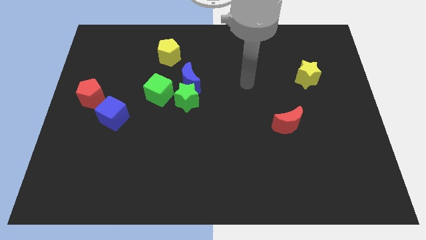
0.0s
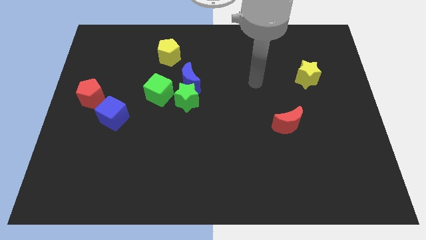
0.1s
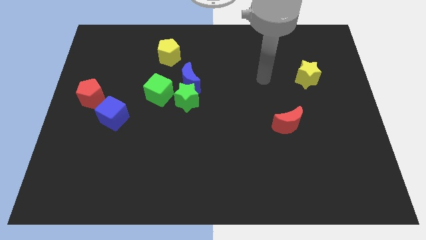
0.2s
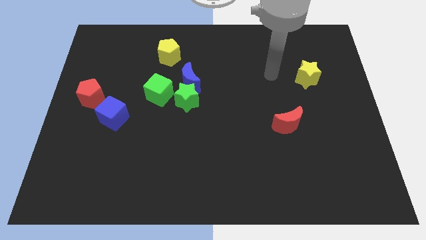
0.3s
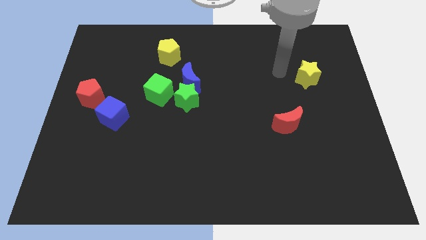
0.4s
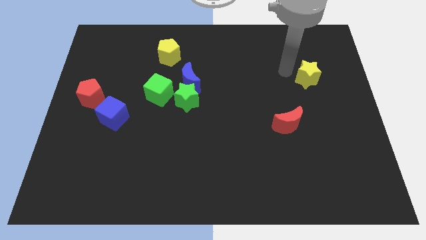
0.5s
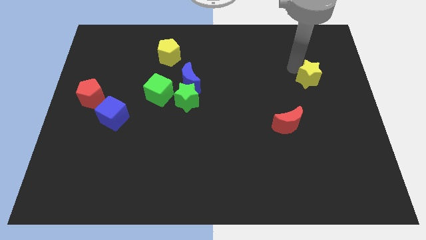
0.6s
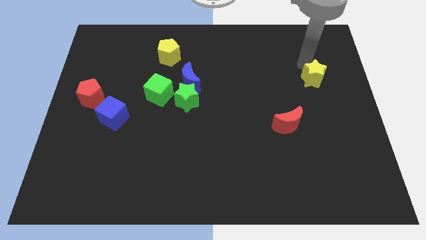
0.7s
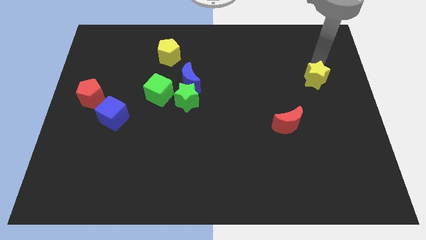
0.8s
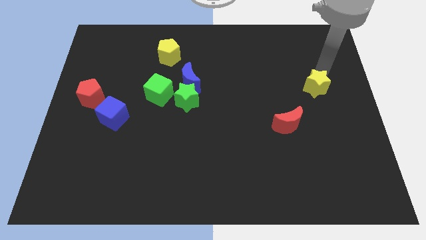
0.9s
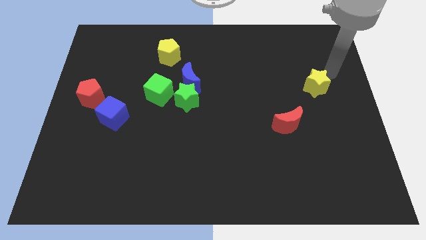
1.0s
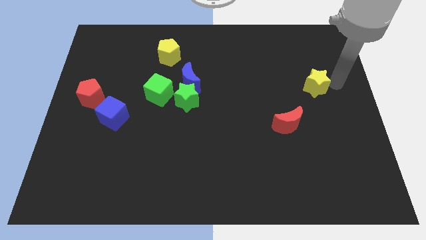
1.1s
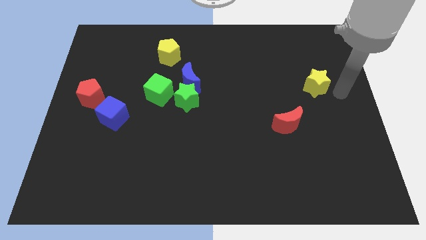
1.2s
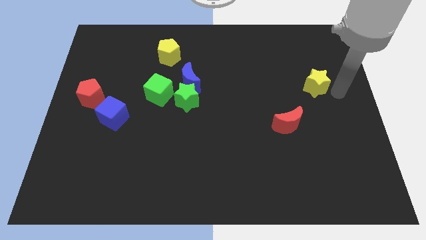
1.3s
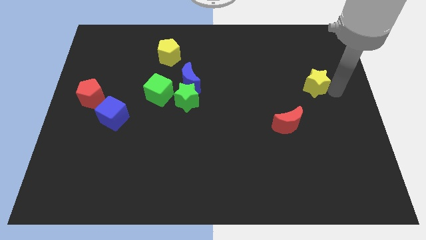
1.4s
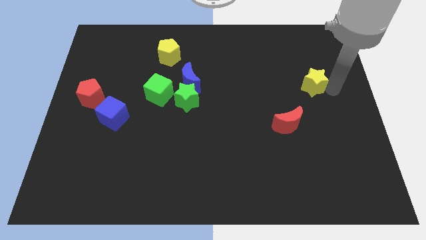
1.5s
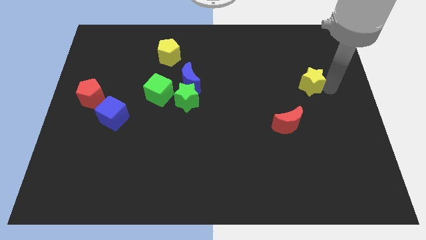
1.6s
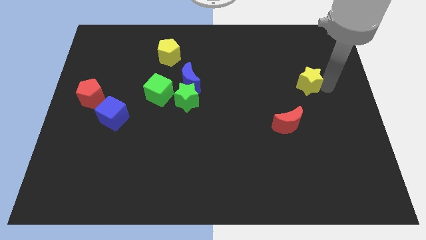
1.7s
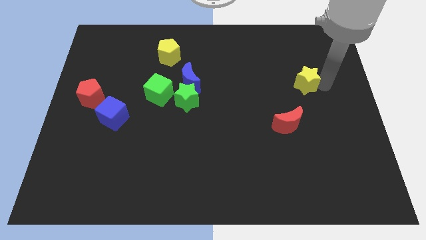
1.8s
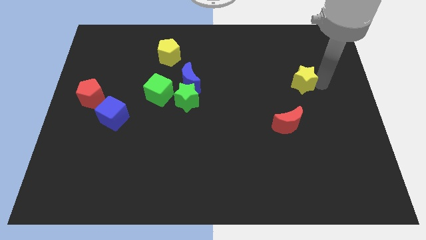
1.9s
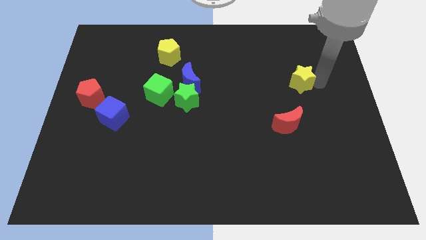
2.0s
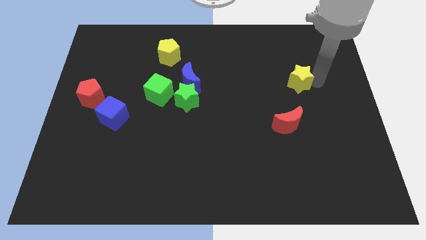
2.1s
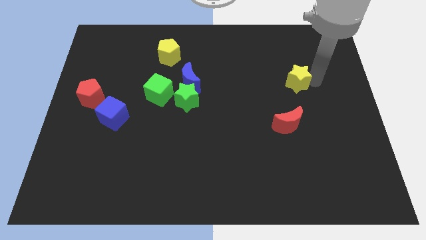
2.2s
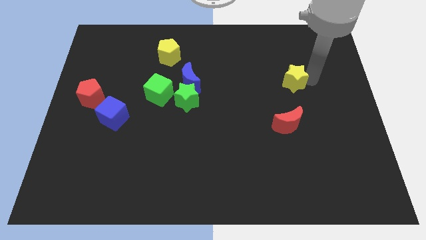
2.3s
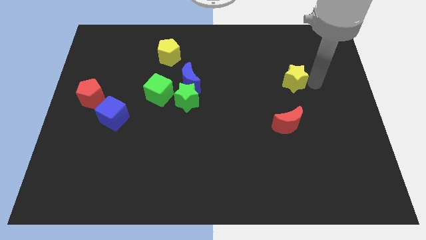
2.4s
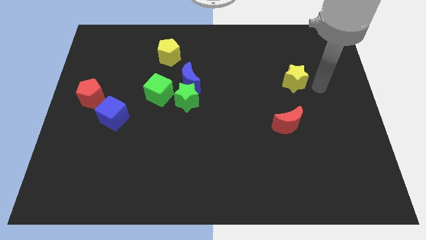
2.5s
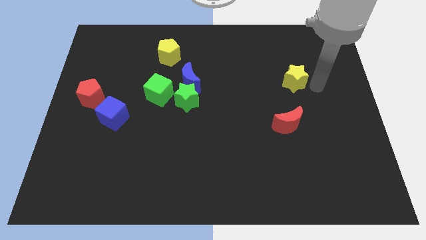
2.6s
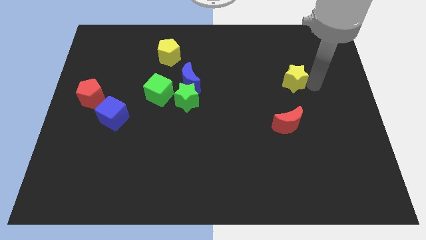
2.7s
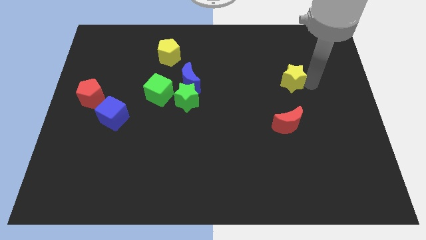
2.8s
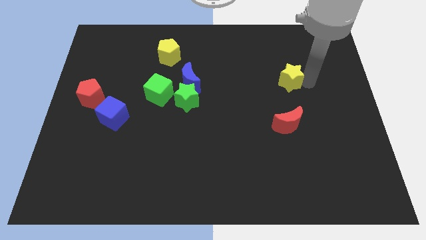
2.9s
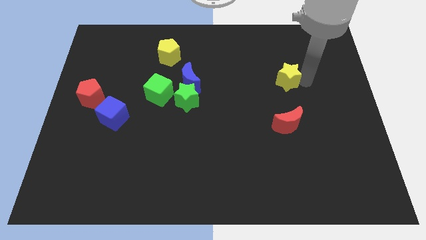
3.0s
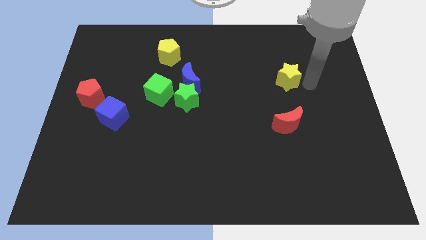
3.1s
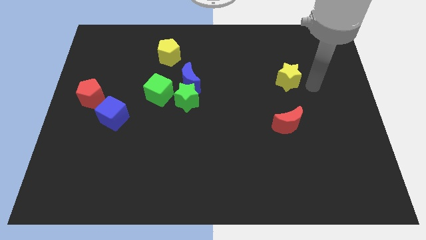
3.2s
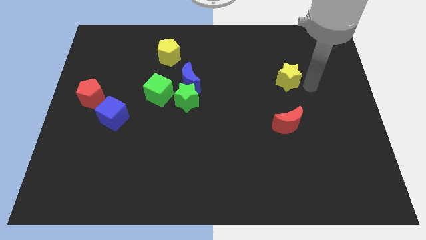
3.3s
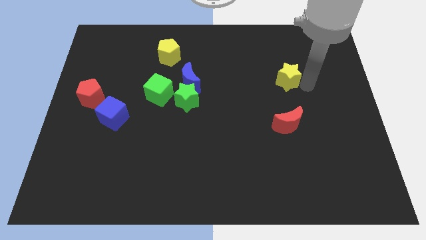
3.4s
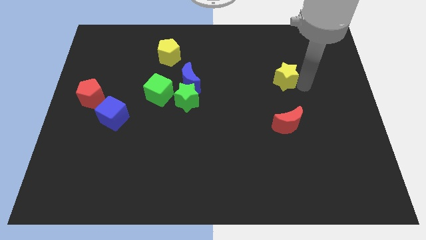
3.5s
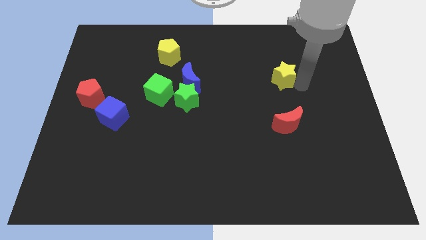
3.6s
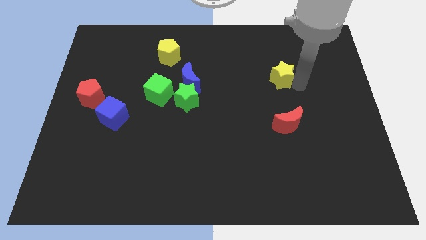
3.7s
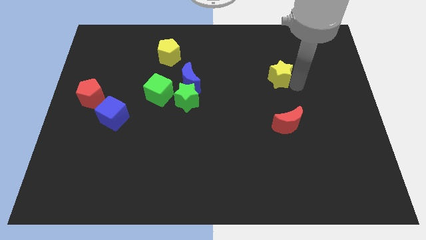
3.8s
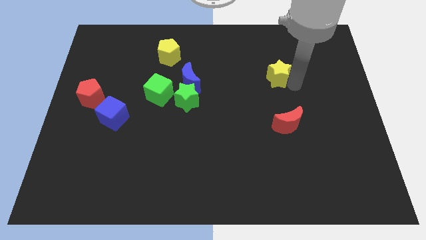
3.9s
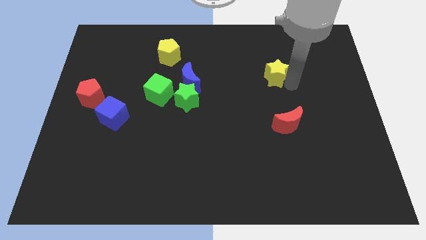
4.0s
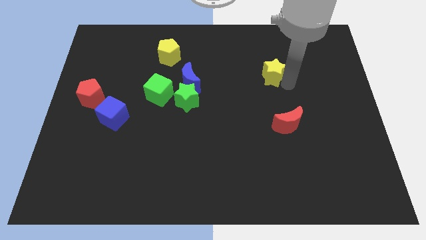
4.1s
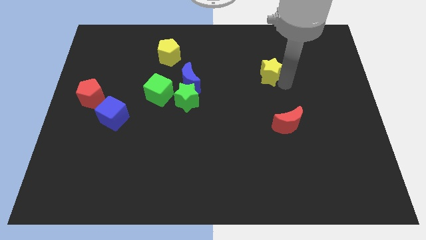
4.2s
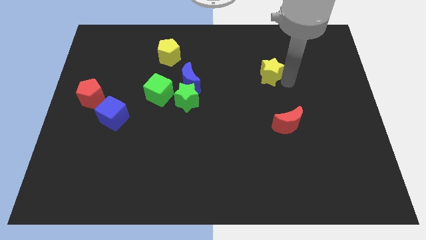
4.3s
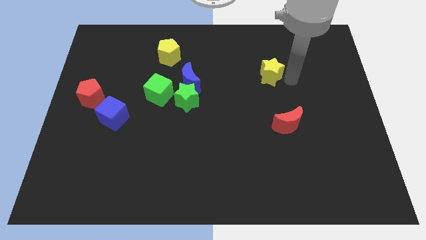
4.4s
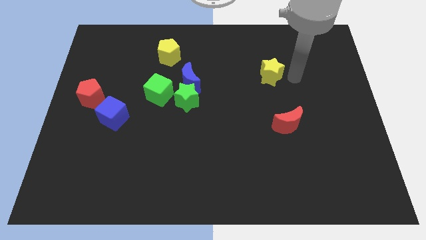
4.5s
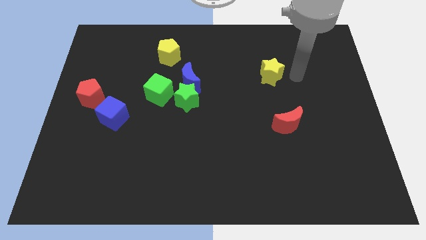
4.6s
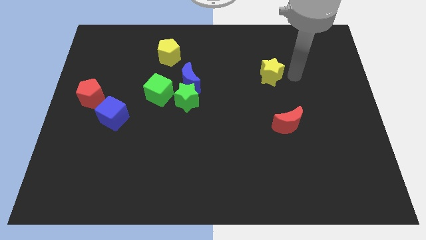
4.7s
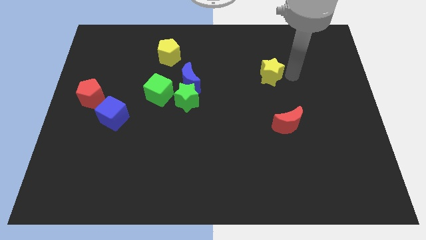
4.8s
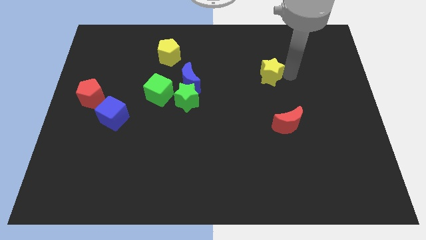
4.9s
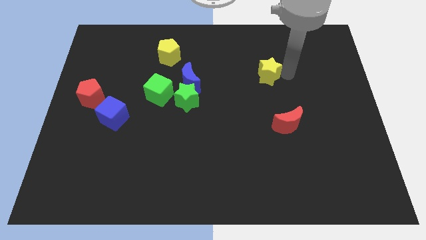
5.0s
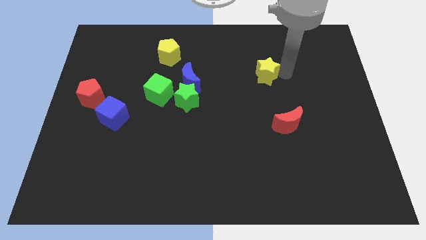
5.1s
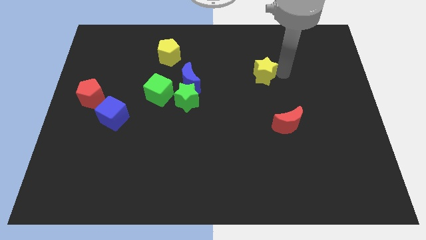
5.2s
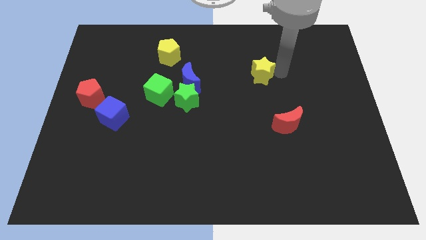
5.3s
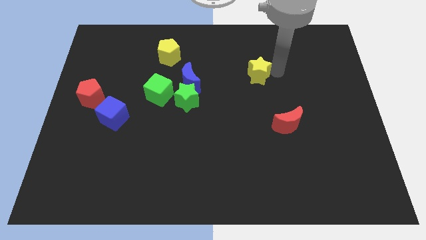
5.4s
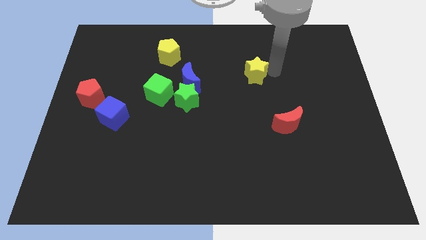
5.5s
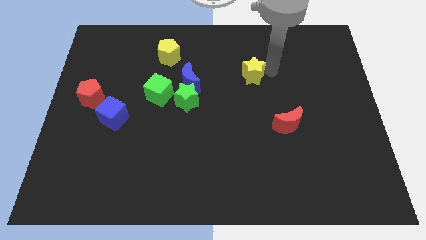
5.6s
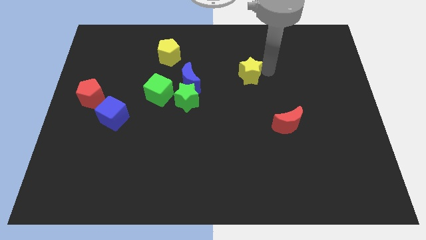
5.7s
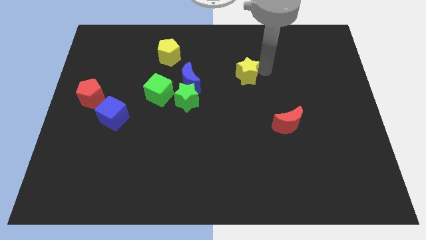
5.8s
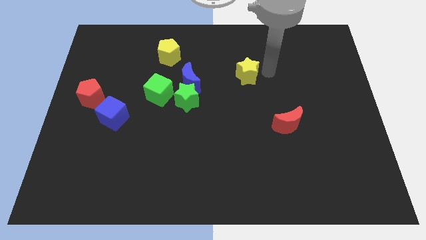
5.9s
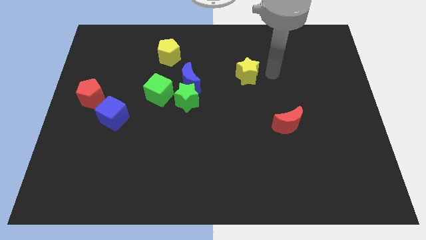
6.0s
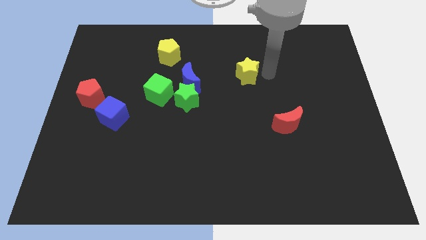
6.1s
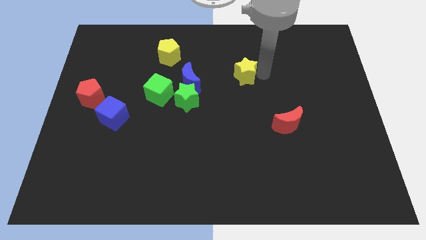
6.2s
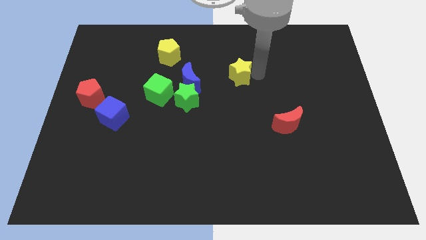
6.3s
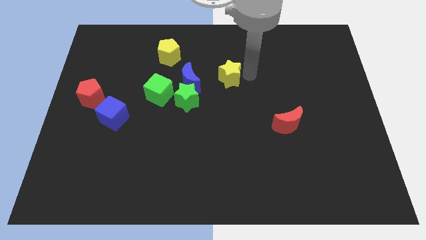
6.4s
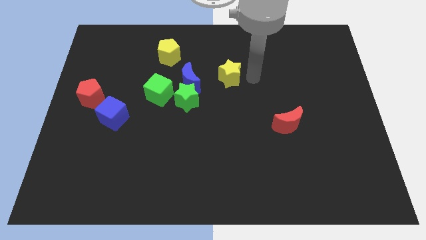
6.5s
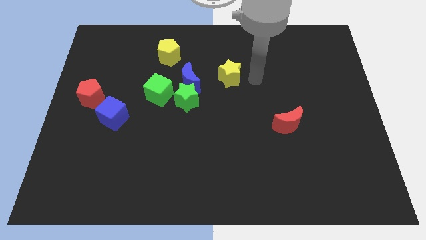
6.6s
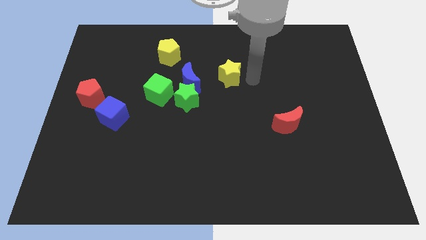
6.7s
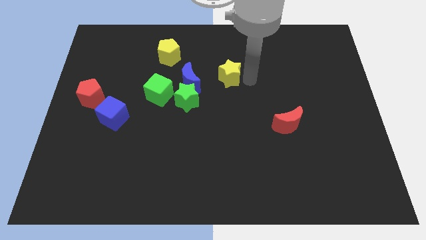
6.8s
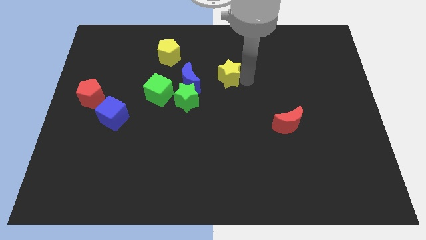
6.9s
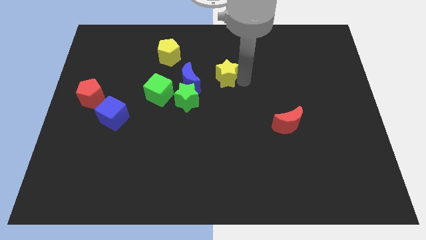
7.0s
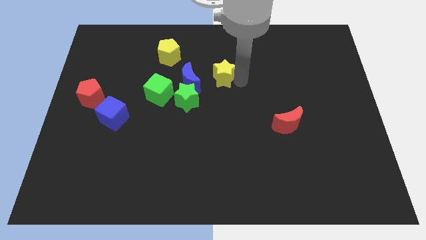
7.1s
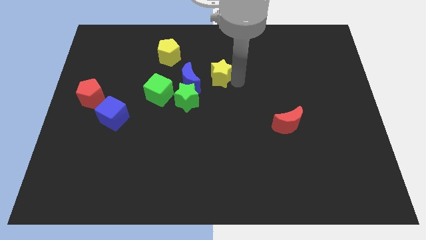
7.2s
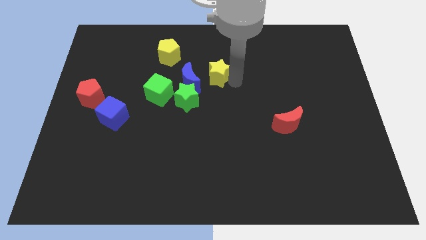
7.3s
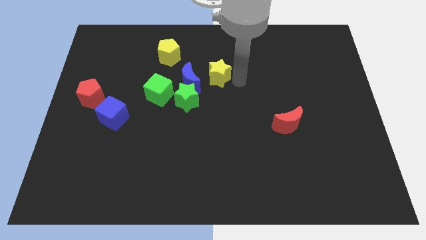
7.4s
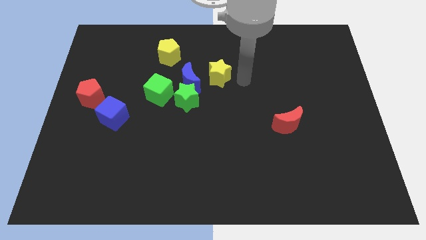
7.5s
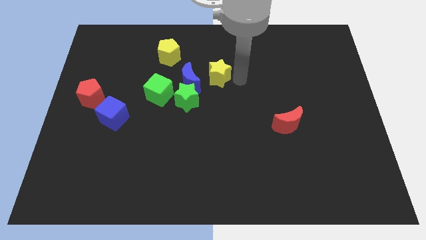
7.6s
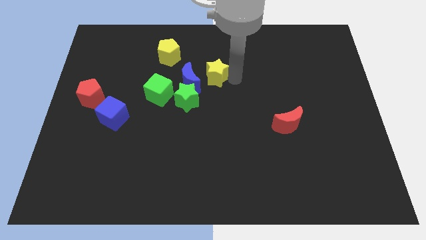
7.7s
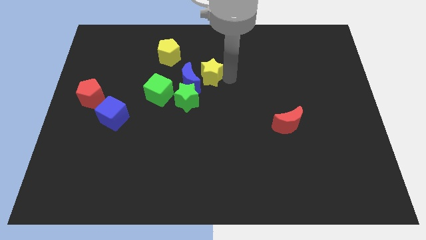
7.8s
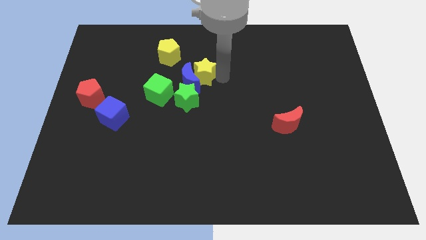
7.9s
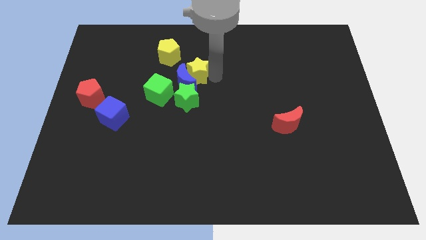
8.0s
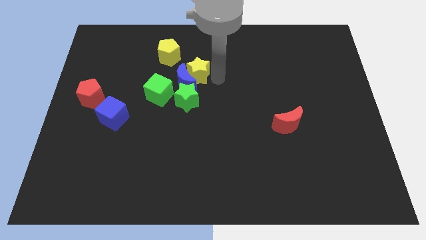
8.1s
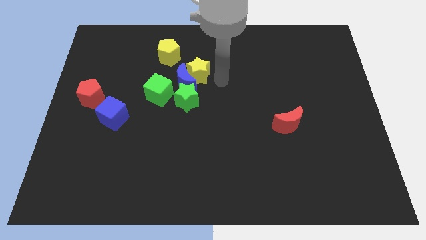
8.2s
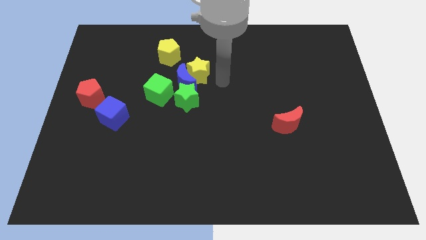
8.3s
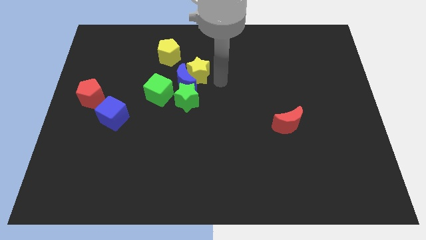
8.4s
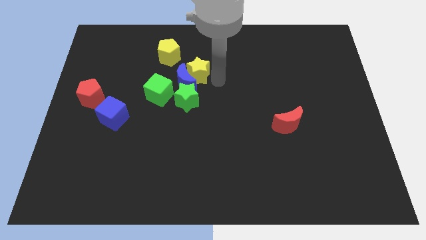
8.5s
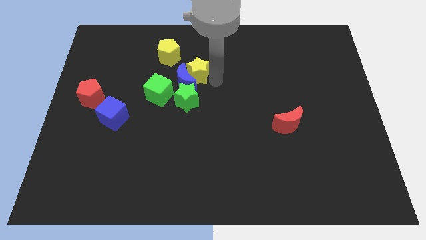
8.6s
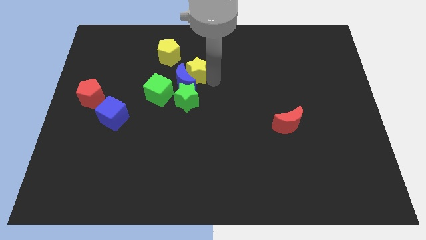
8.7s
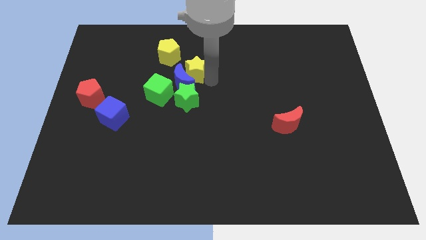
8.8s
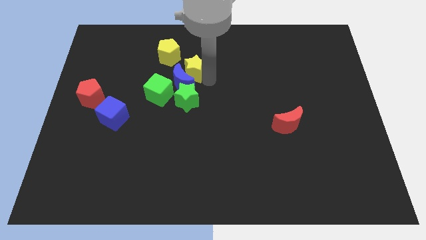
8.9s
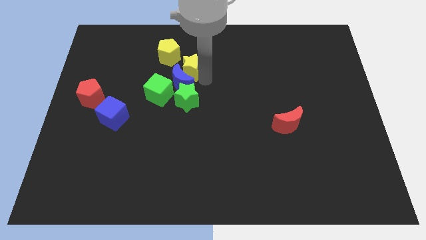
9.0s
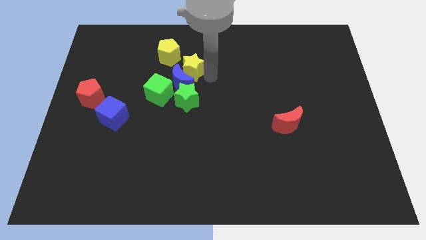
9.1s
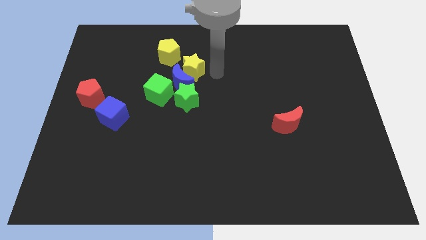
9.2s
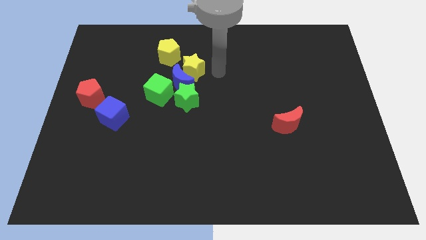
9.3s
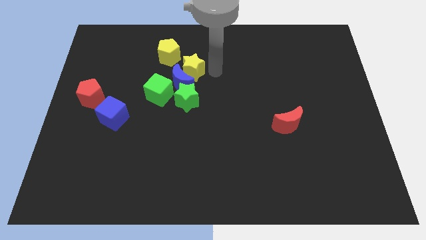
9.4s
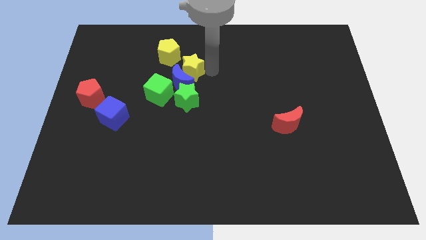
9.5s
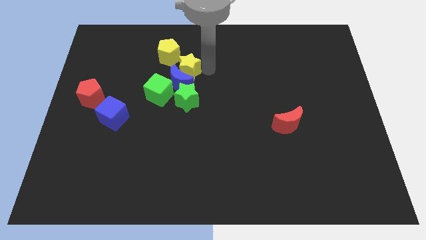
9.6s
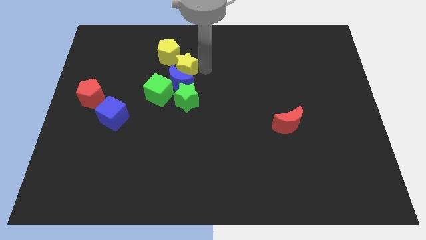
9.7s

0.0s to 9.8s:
slide the yellow star to the top left side of the blue moon
